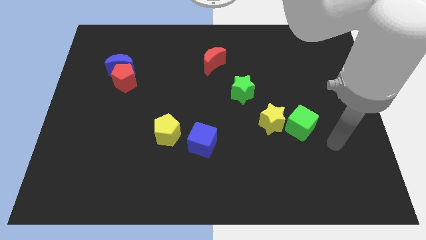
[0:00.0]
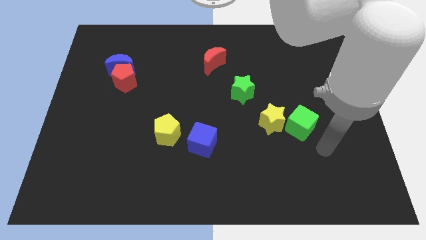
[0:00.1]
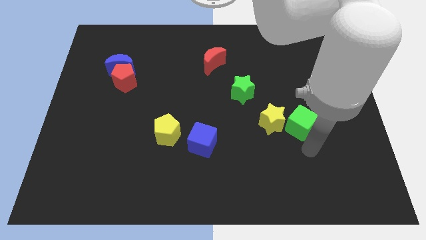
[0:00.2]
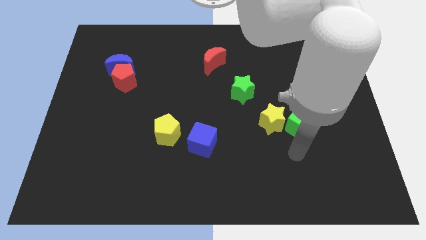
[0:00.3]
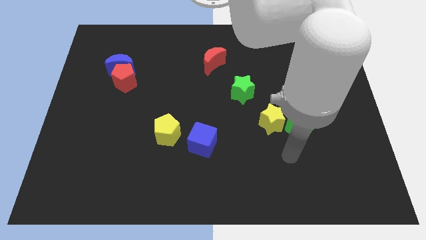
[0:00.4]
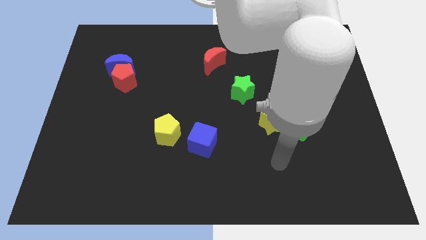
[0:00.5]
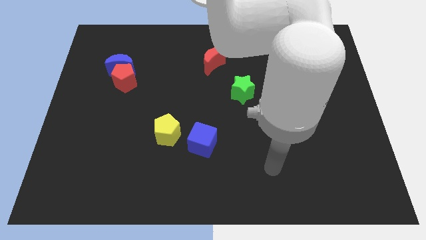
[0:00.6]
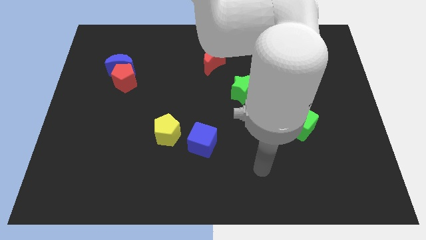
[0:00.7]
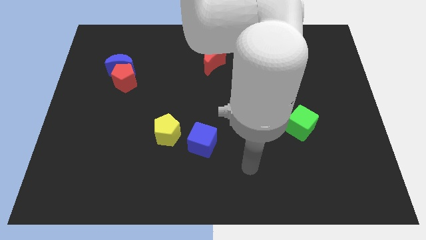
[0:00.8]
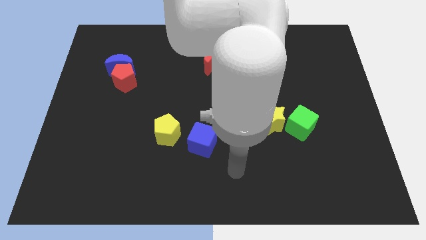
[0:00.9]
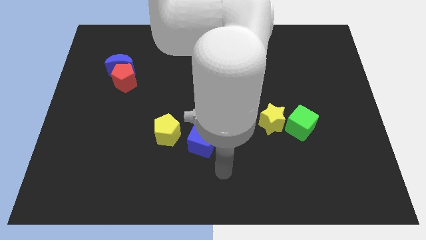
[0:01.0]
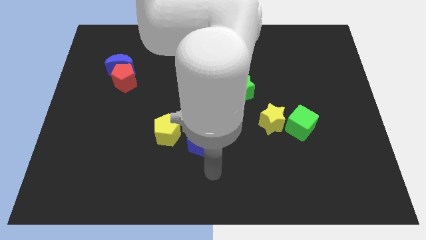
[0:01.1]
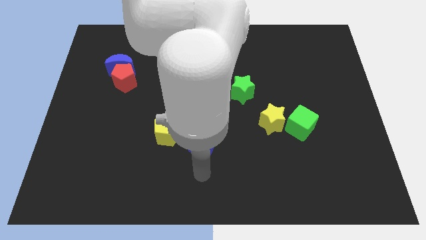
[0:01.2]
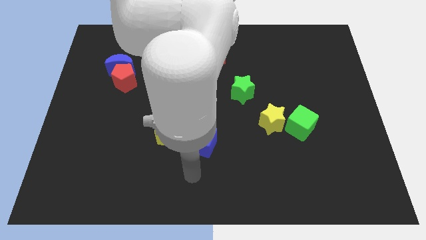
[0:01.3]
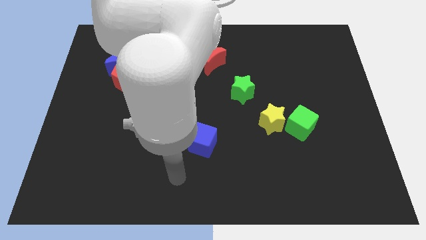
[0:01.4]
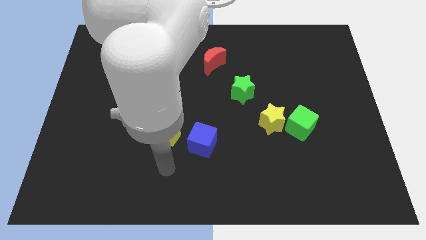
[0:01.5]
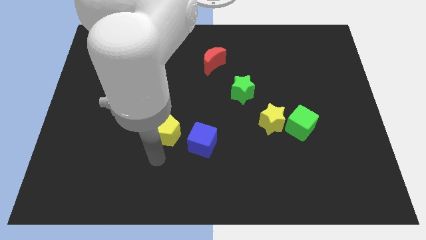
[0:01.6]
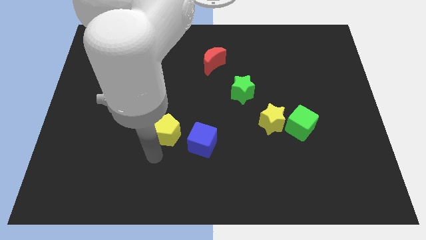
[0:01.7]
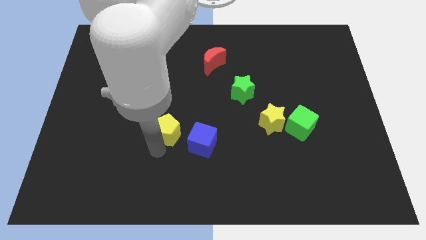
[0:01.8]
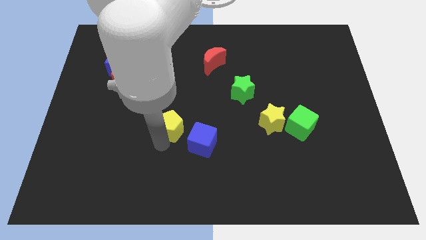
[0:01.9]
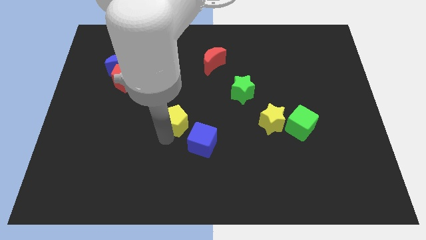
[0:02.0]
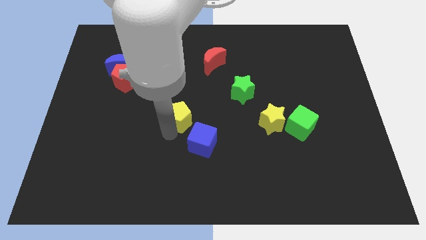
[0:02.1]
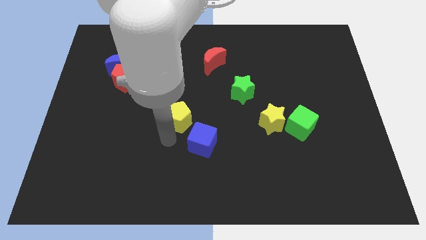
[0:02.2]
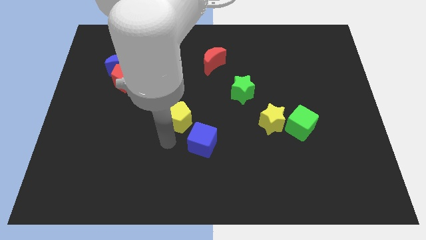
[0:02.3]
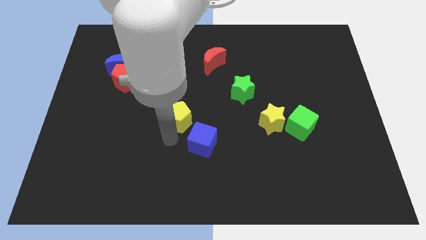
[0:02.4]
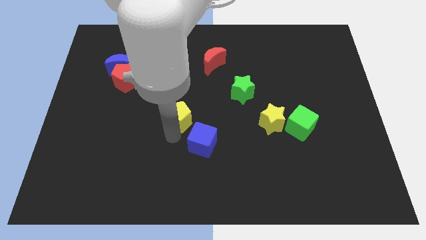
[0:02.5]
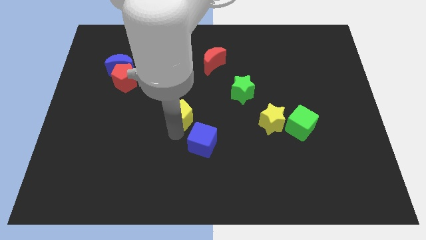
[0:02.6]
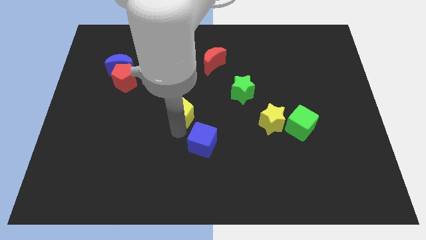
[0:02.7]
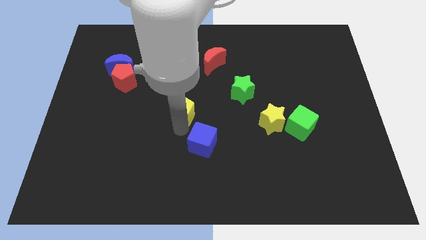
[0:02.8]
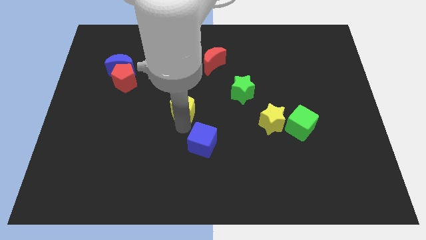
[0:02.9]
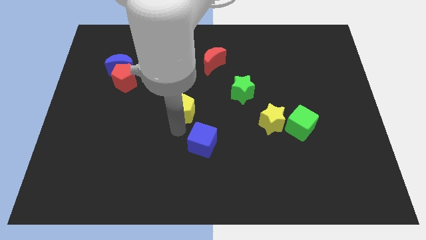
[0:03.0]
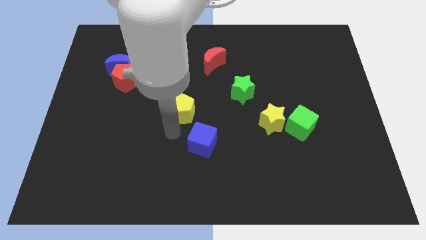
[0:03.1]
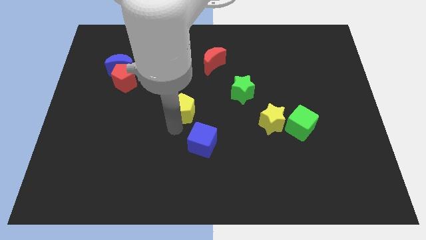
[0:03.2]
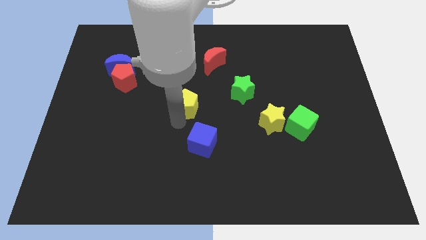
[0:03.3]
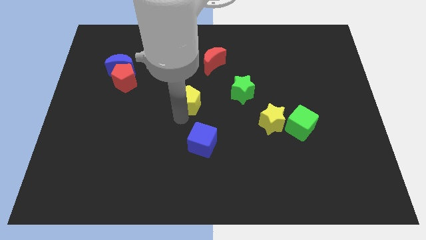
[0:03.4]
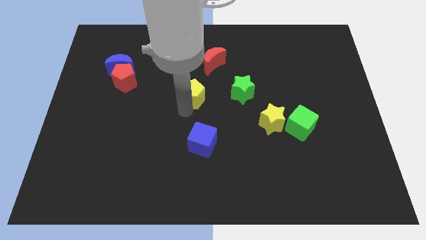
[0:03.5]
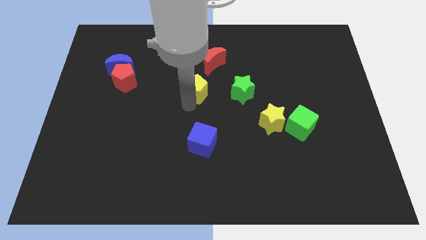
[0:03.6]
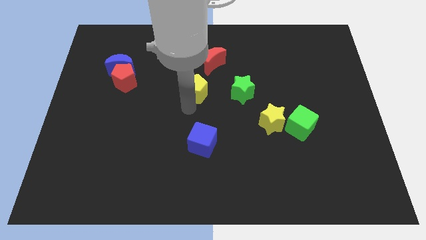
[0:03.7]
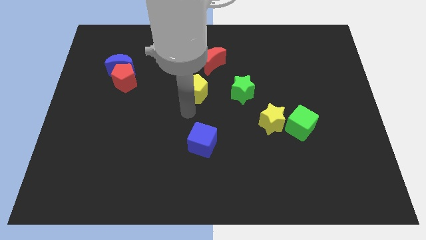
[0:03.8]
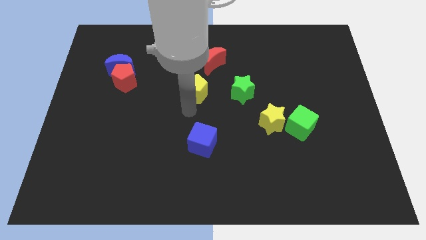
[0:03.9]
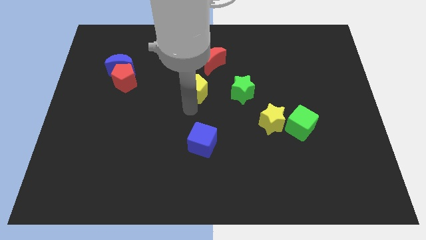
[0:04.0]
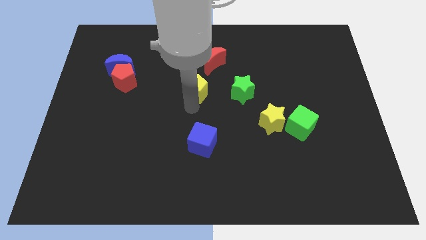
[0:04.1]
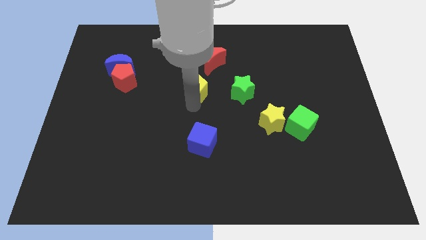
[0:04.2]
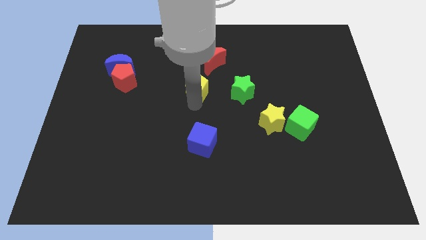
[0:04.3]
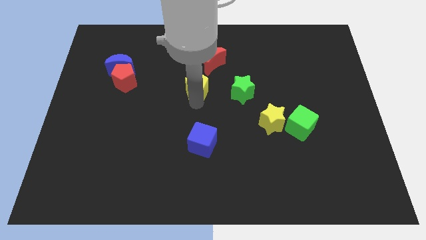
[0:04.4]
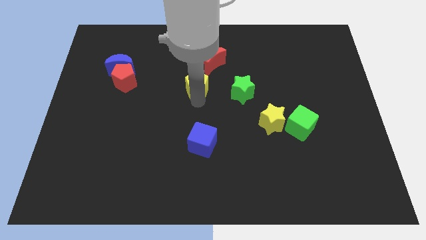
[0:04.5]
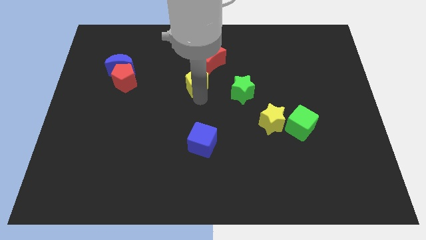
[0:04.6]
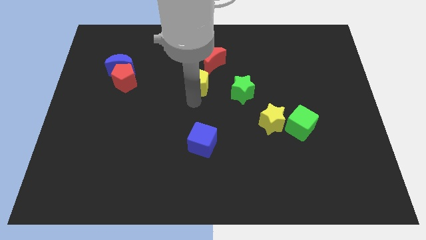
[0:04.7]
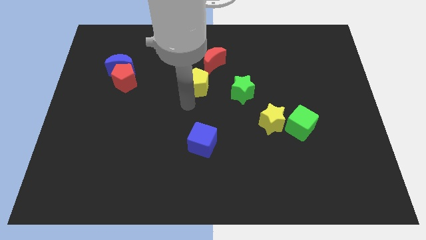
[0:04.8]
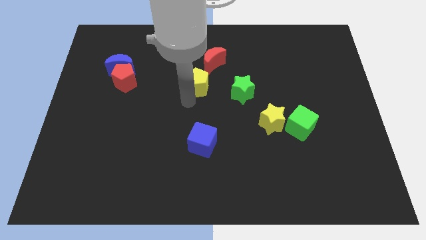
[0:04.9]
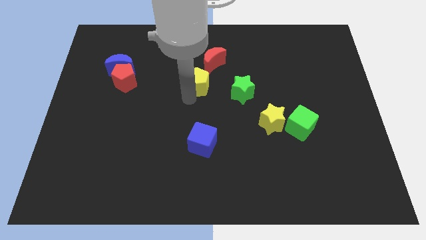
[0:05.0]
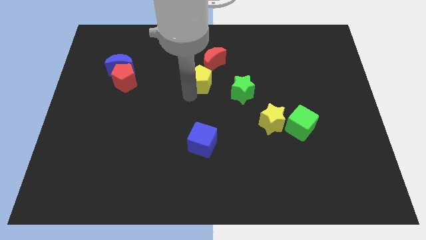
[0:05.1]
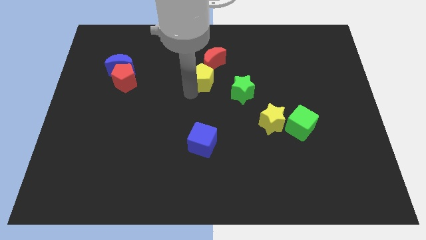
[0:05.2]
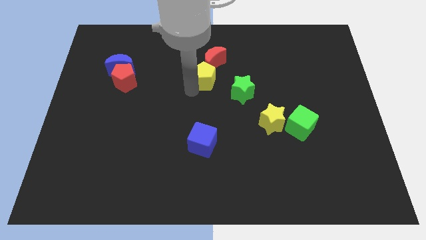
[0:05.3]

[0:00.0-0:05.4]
put the yellow pentagon to the red moon
